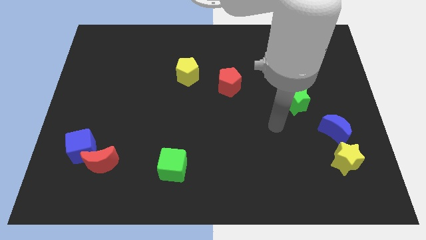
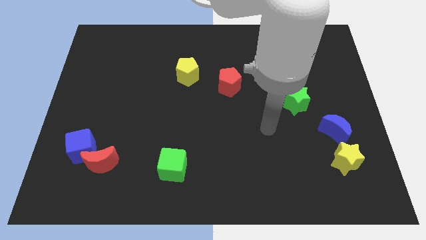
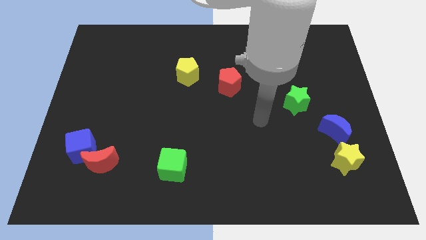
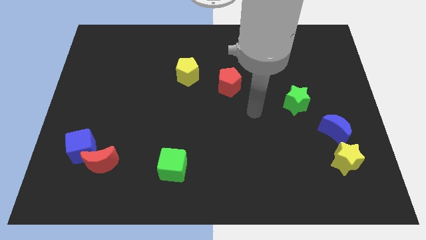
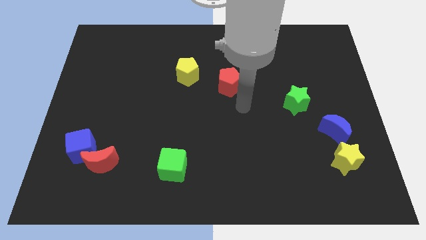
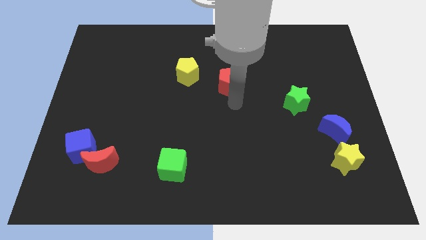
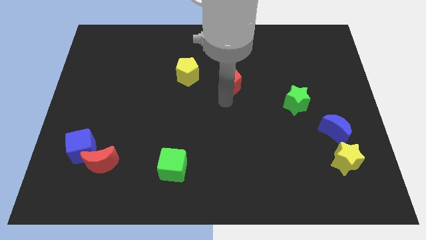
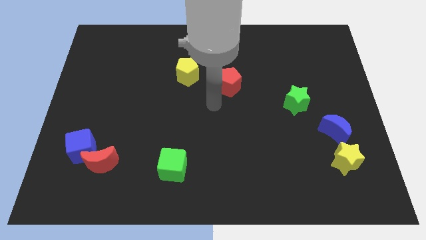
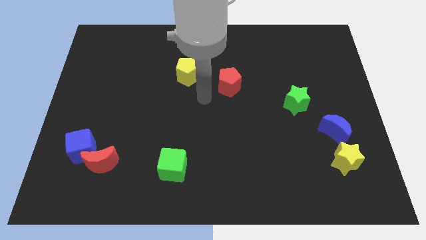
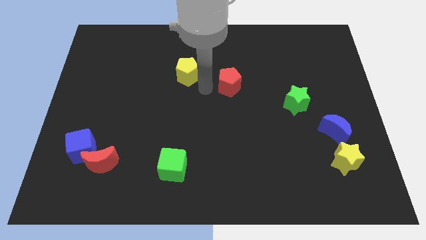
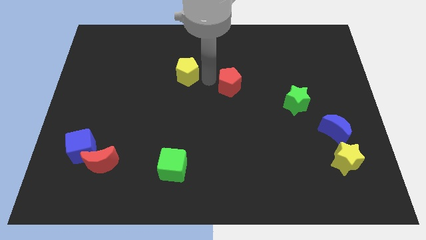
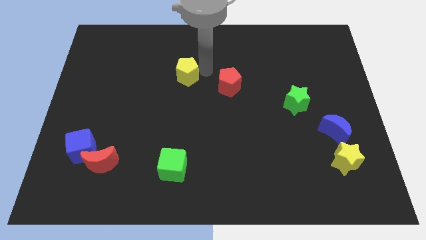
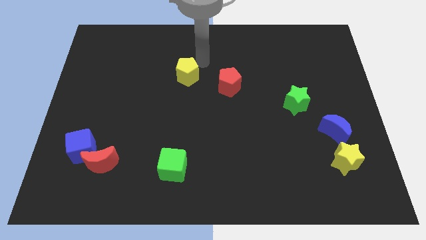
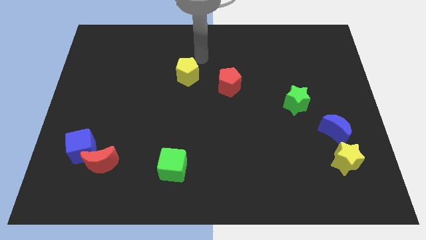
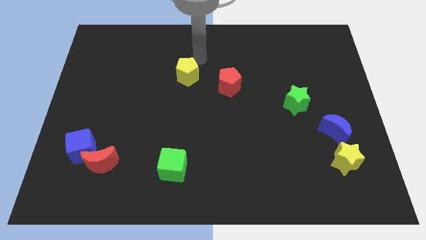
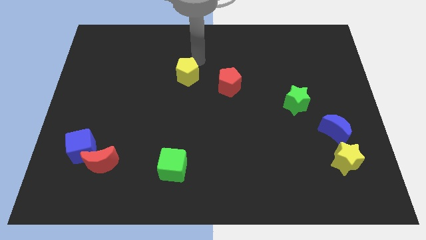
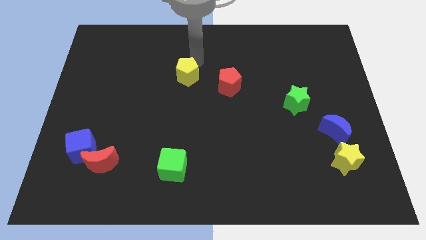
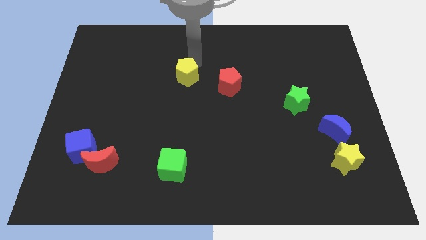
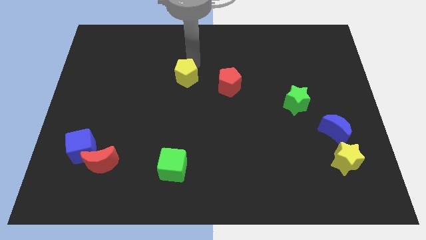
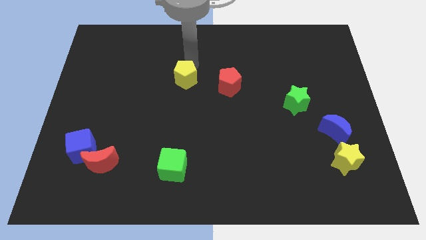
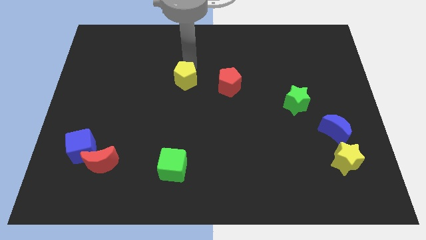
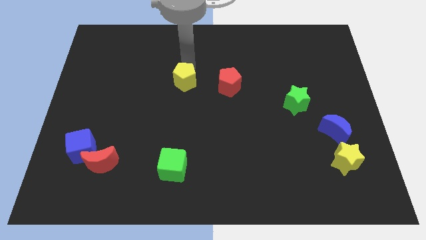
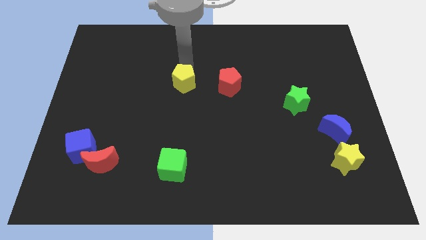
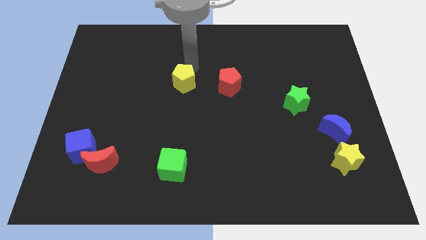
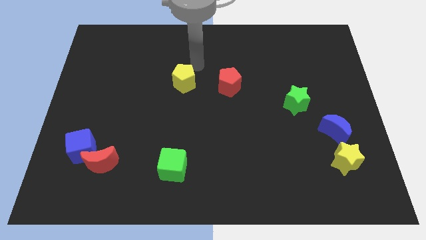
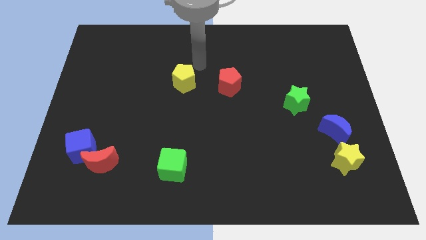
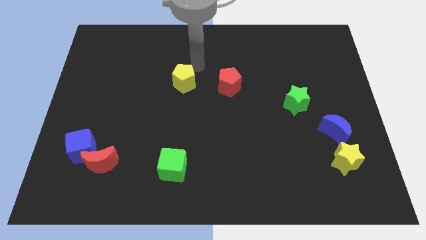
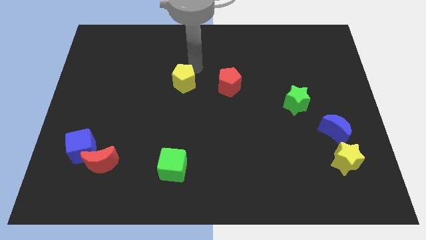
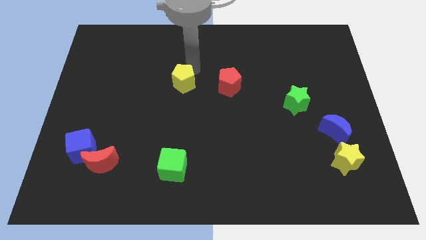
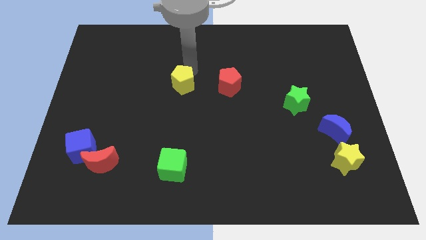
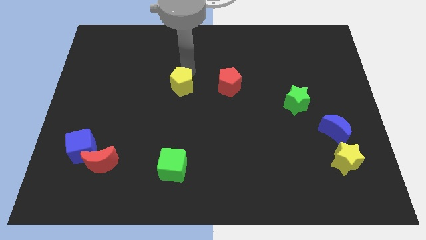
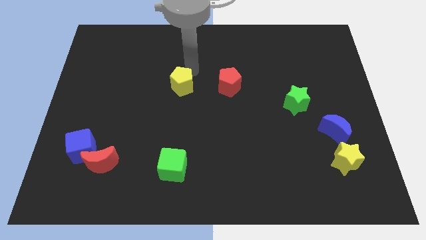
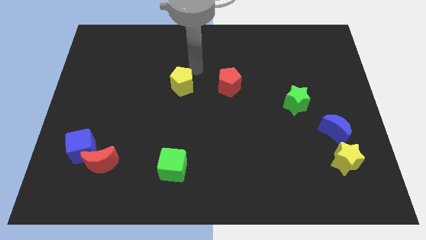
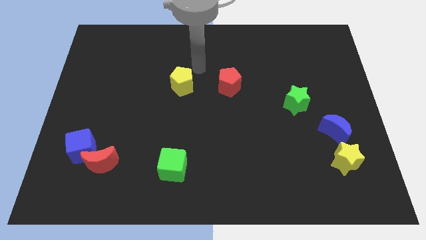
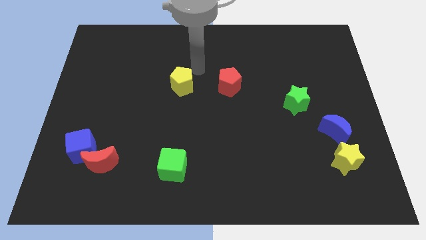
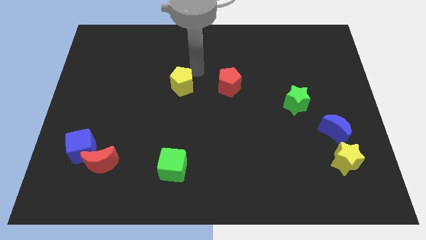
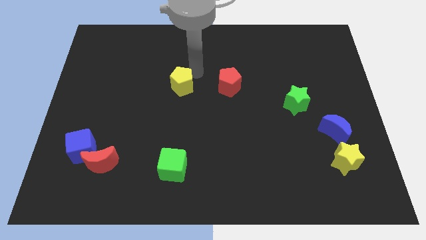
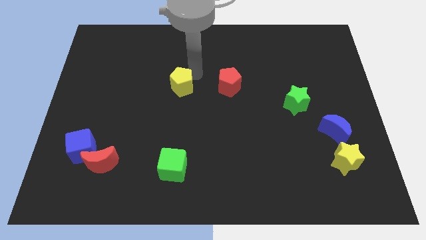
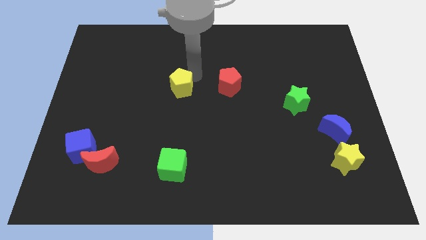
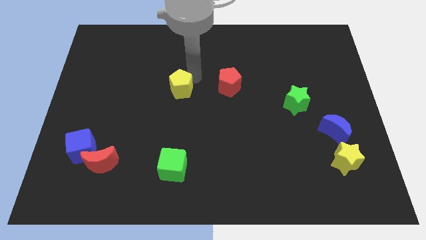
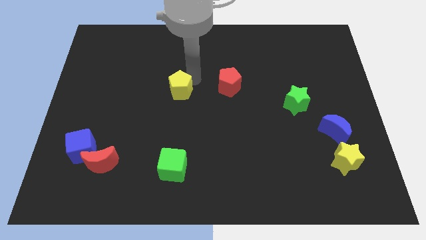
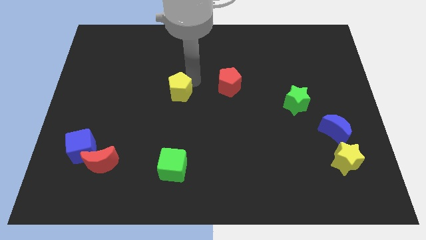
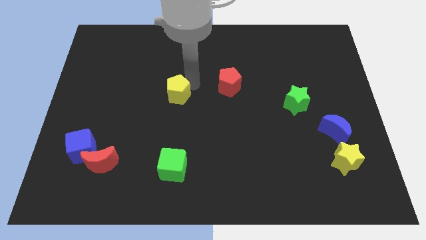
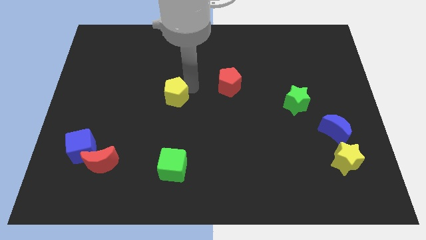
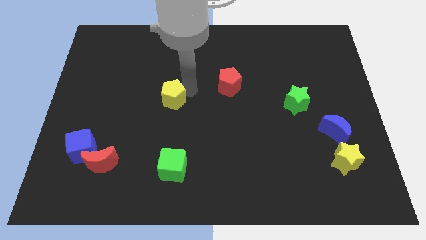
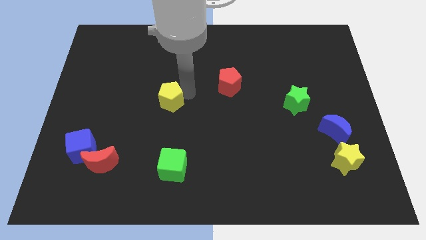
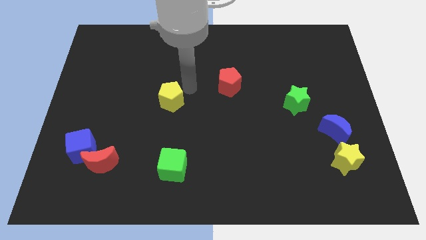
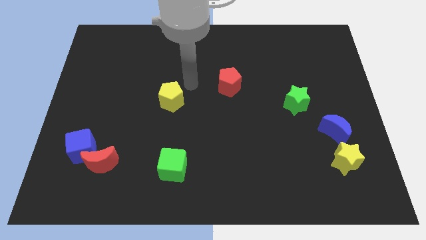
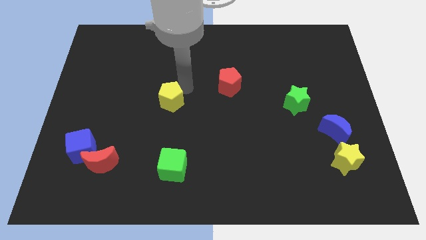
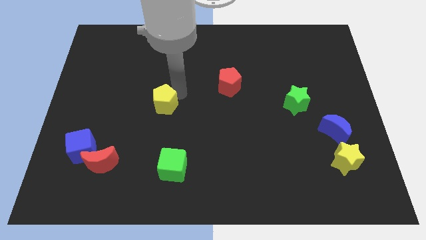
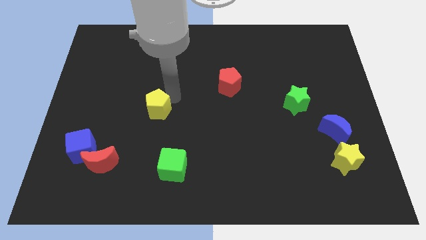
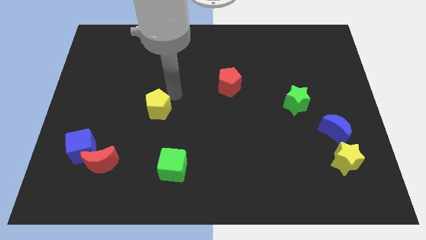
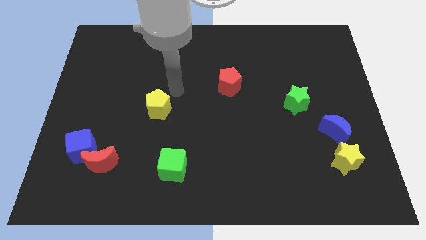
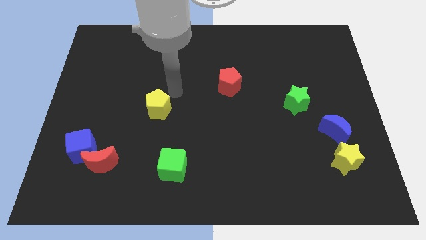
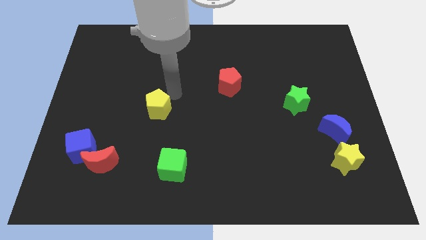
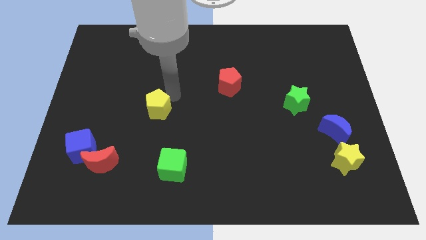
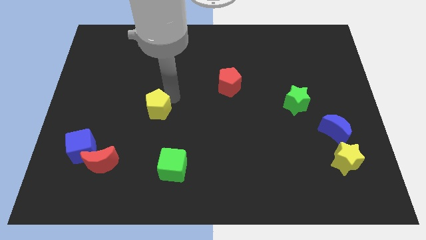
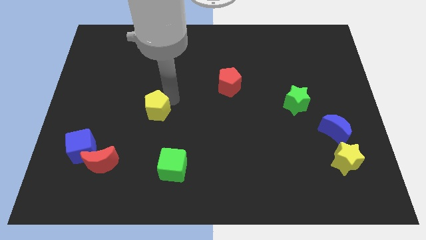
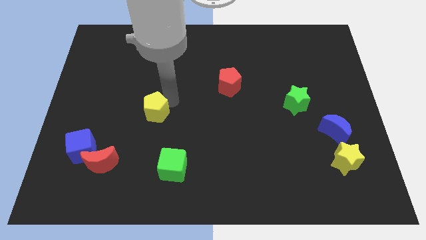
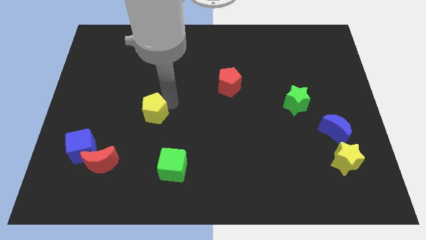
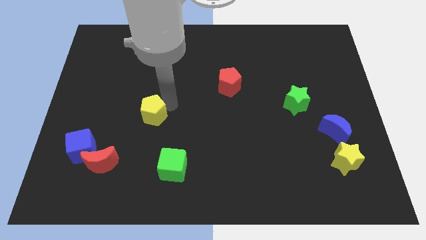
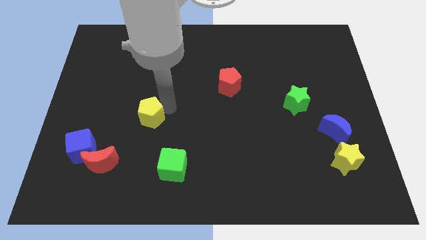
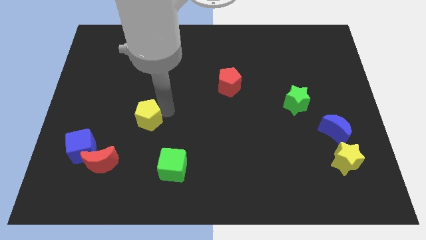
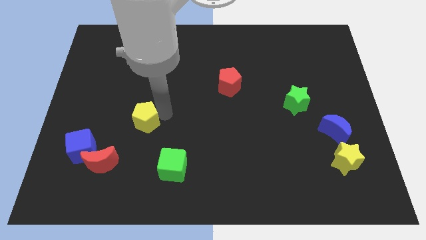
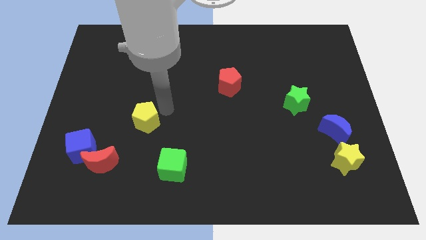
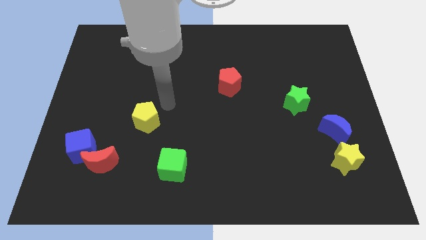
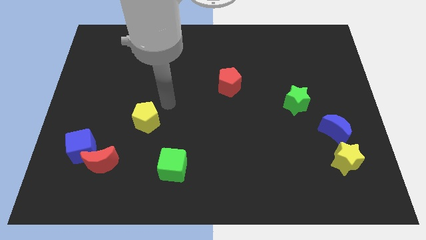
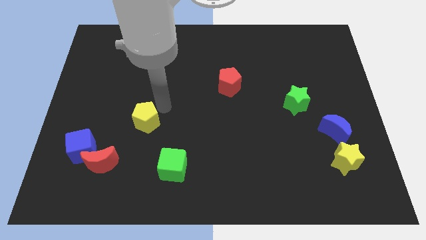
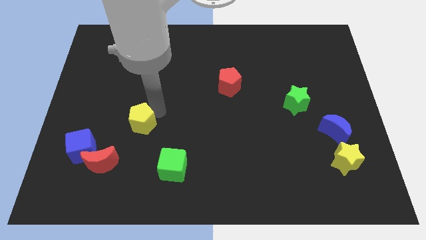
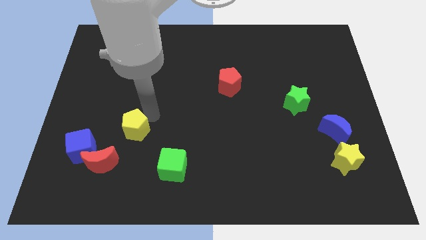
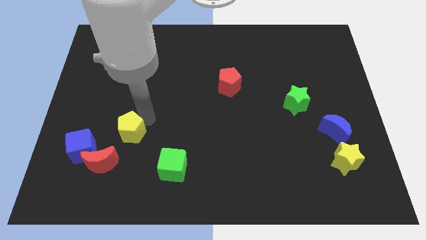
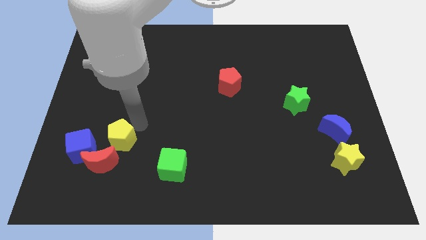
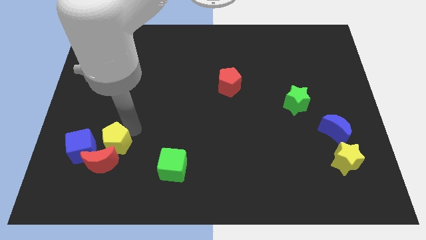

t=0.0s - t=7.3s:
move the yellow pentagon close to the red moon
